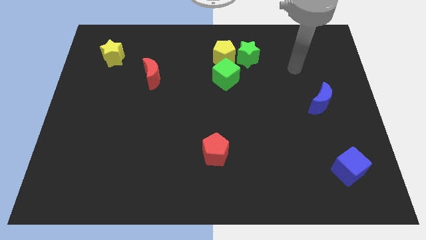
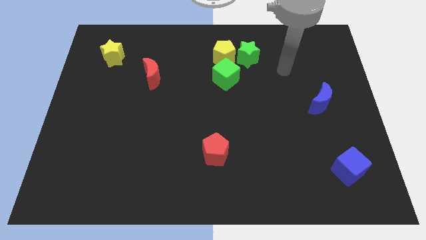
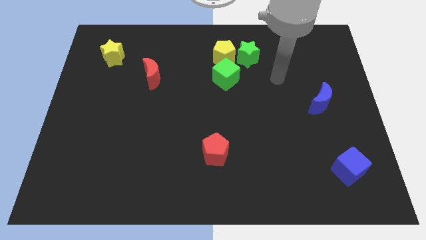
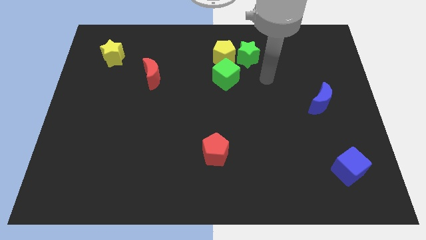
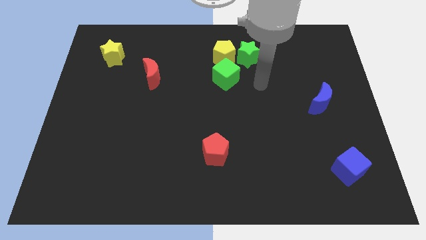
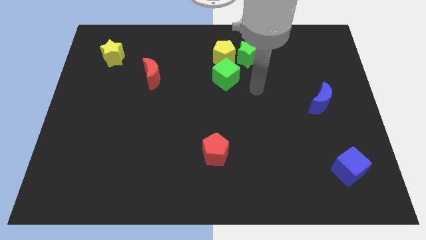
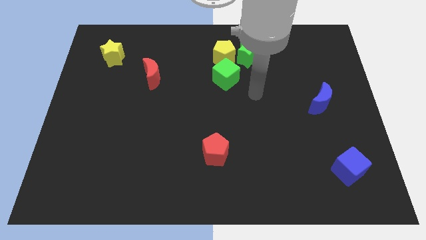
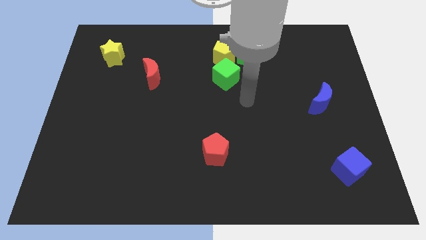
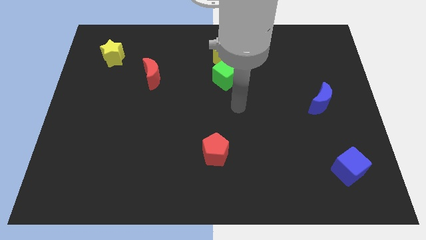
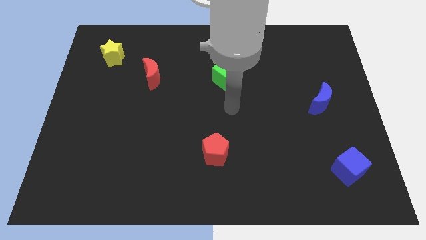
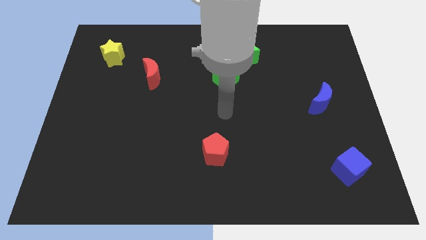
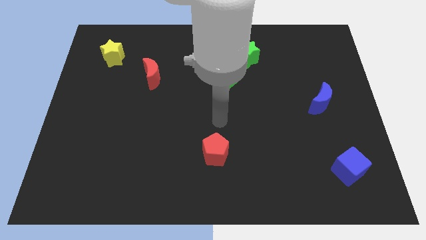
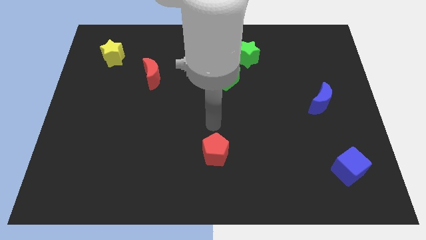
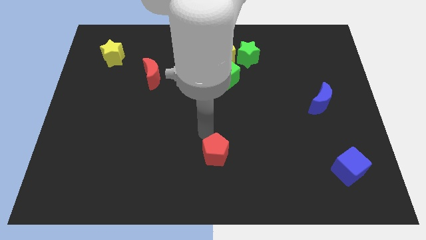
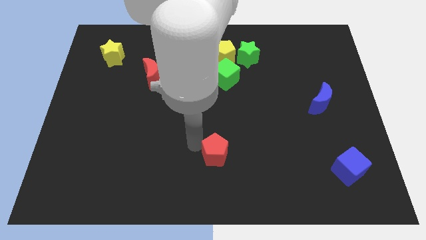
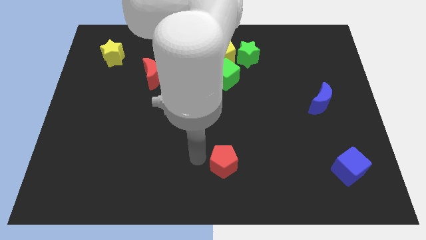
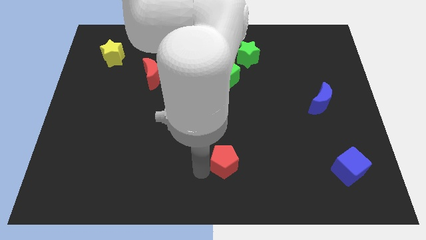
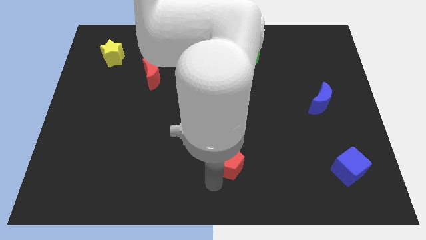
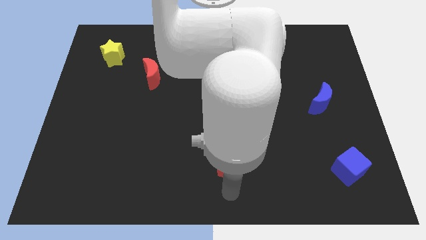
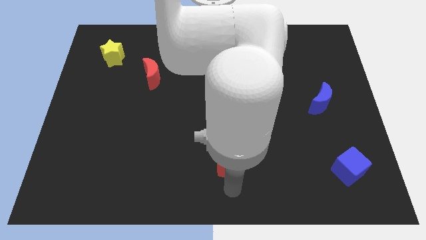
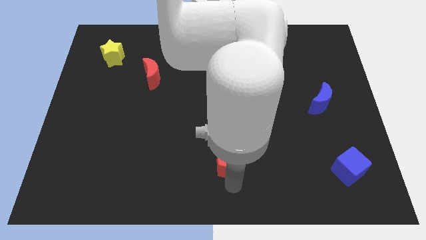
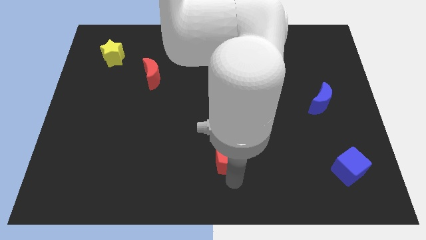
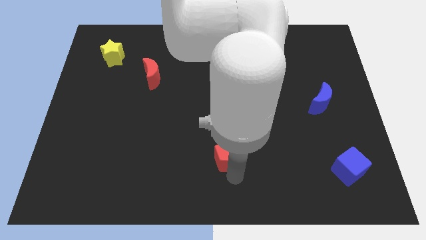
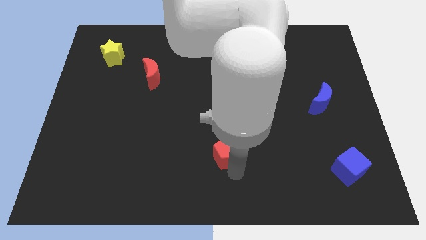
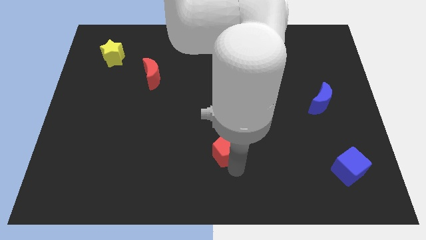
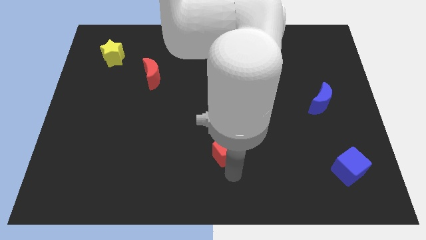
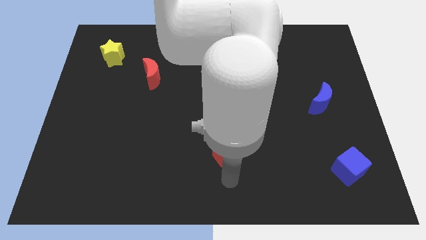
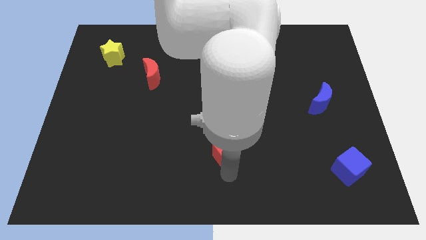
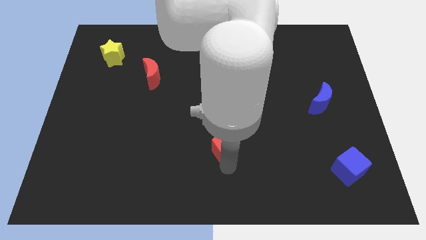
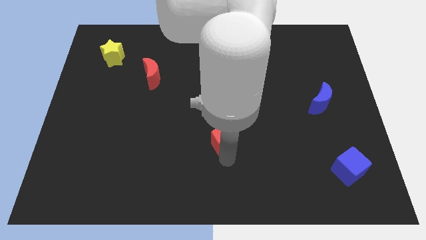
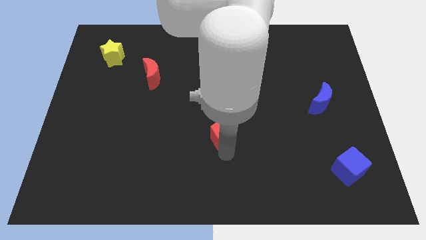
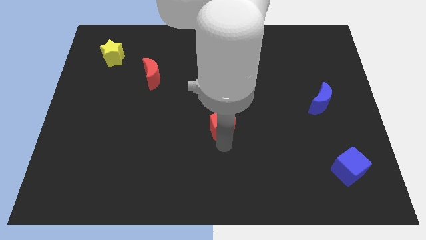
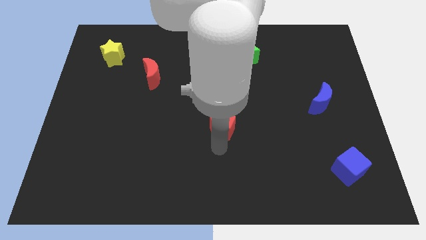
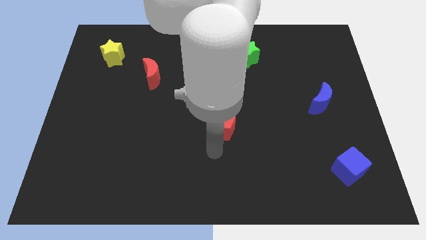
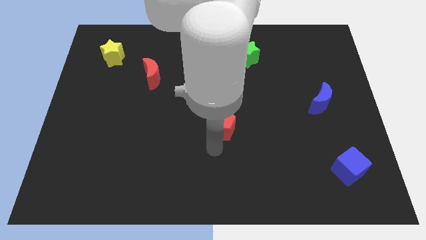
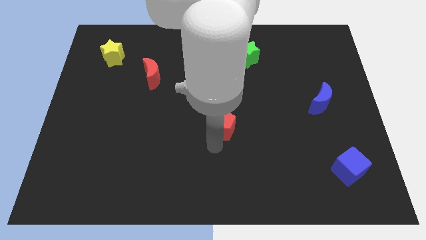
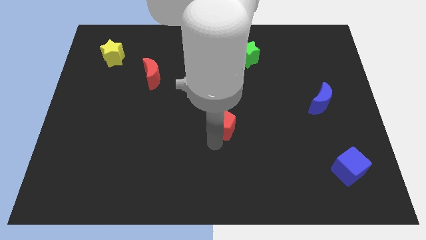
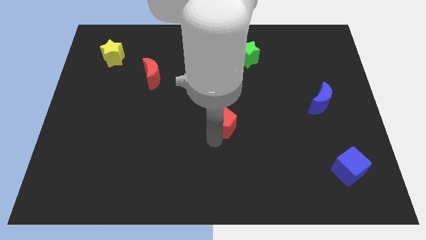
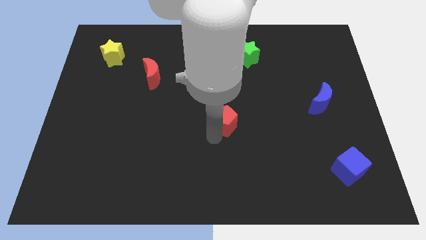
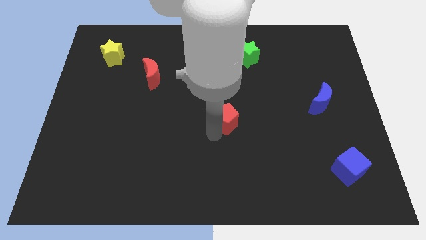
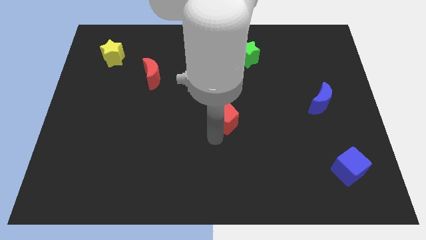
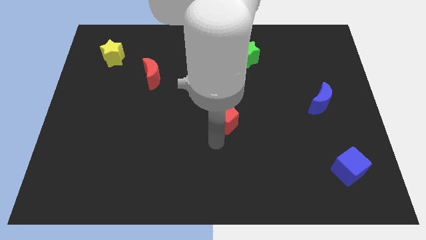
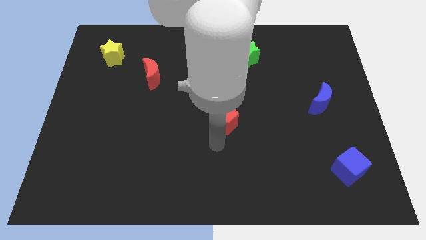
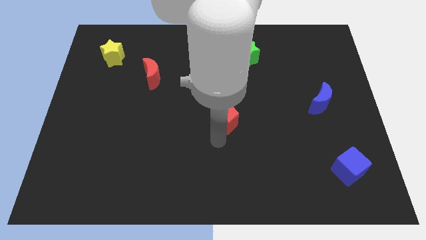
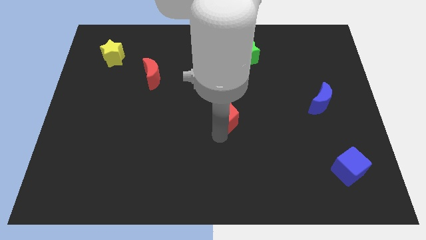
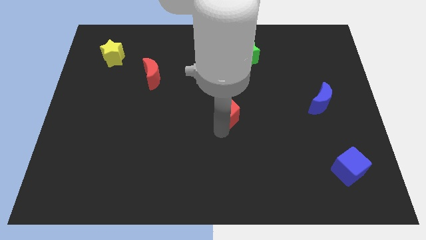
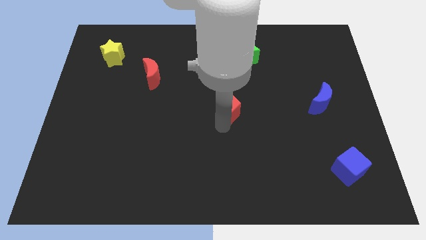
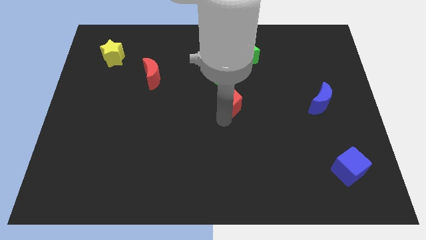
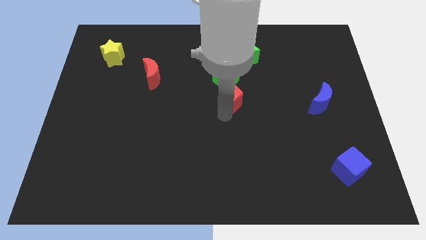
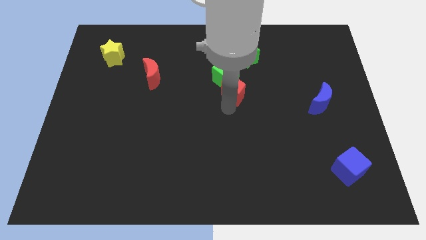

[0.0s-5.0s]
slide the red pentagon next to the green cube

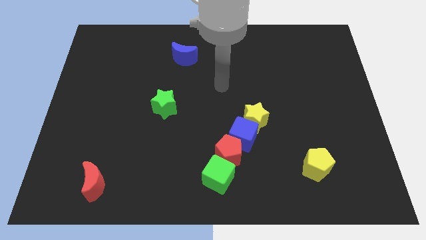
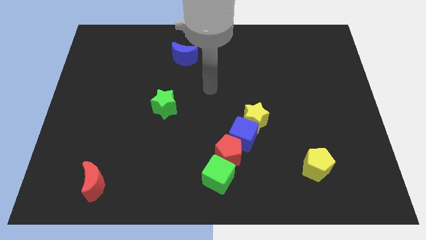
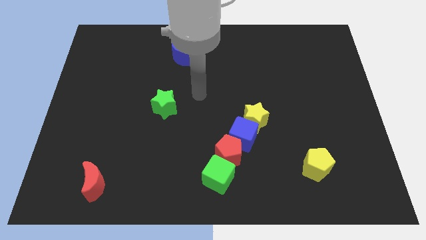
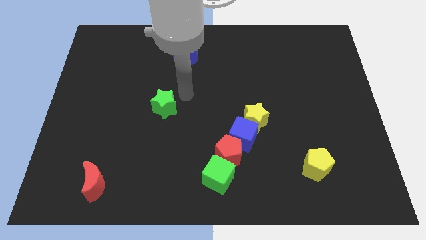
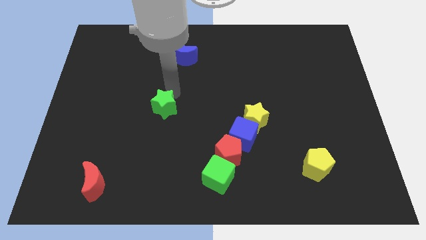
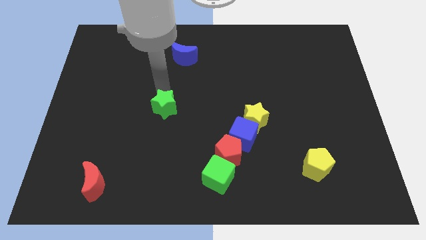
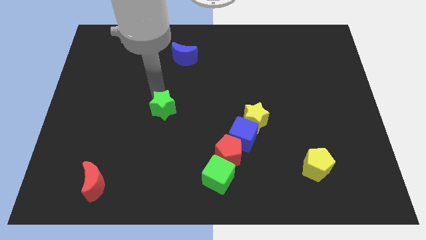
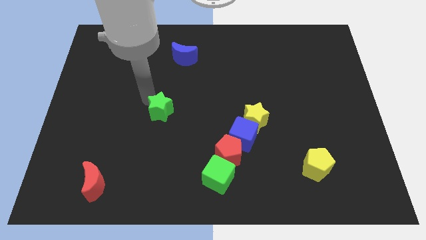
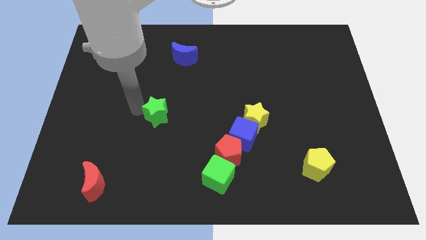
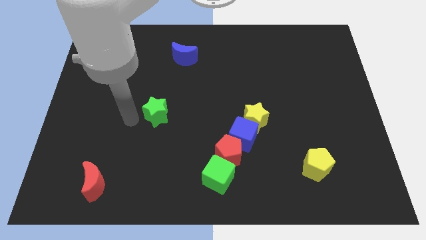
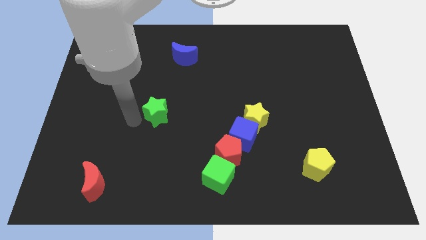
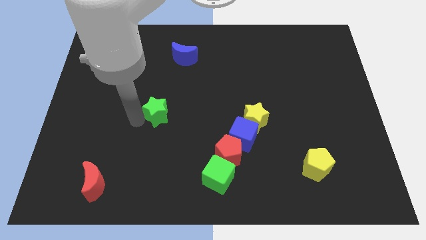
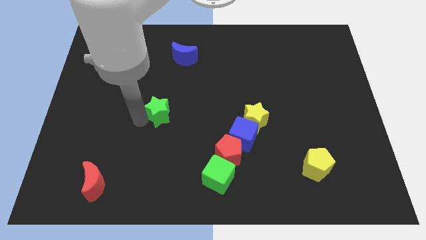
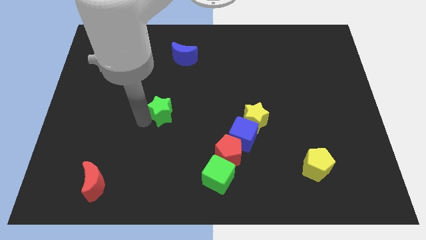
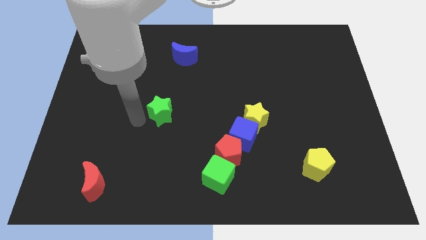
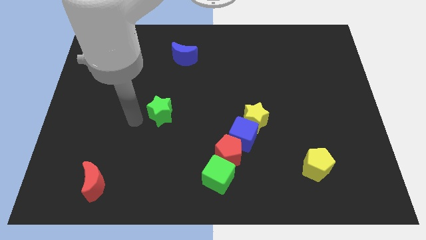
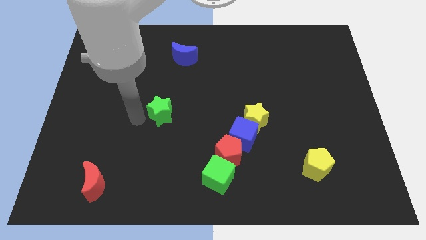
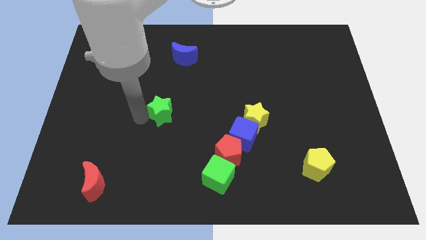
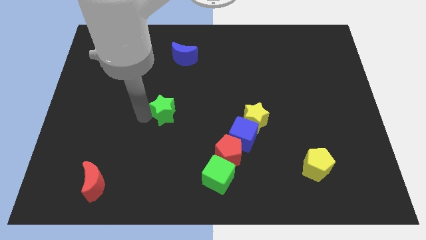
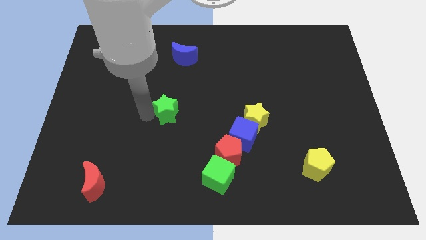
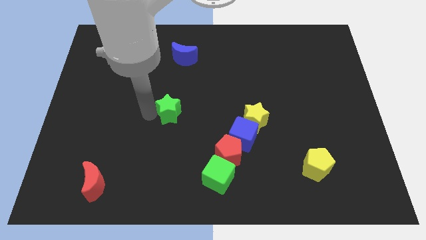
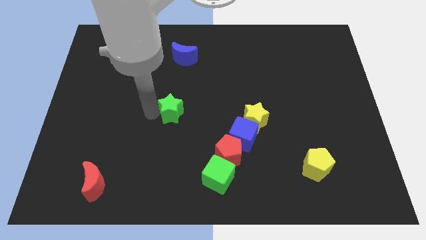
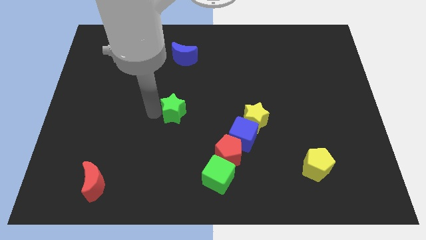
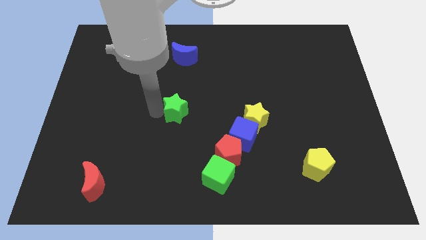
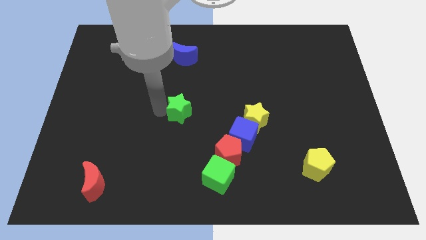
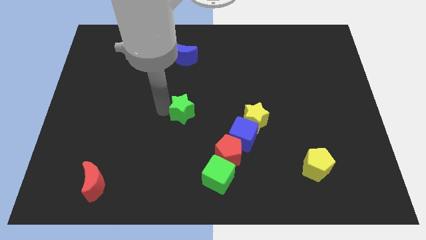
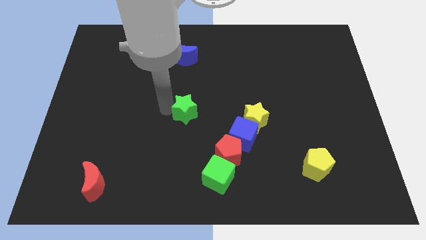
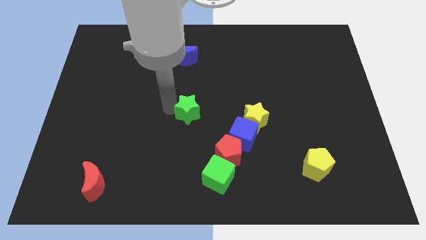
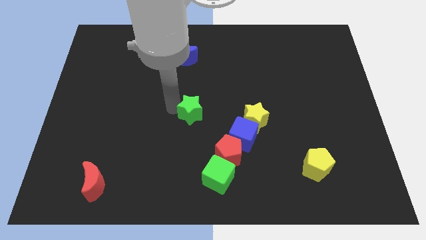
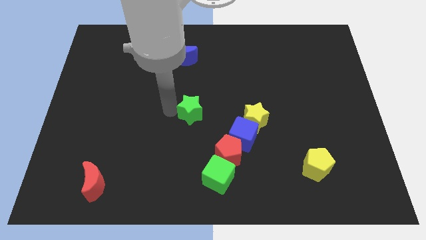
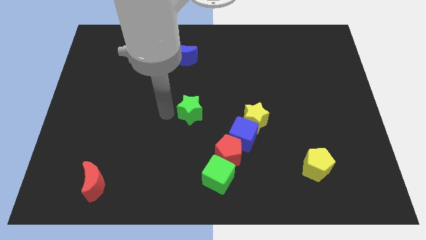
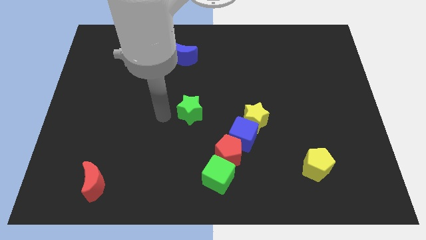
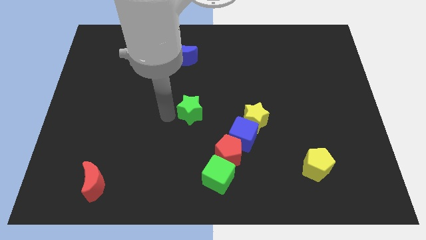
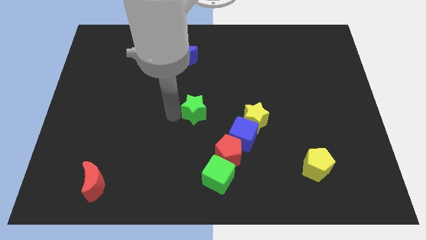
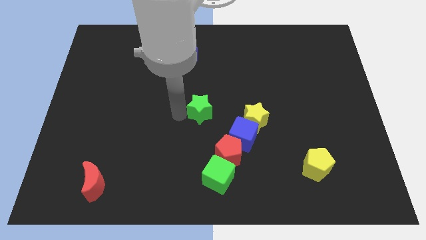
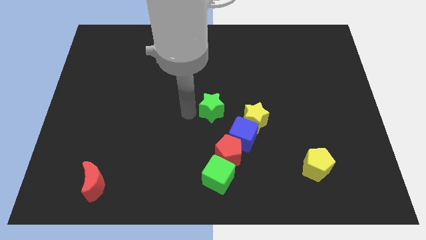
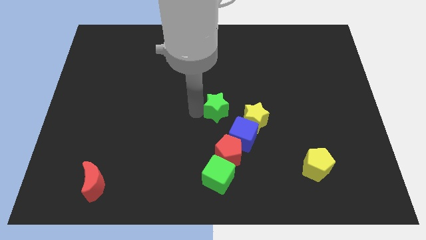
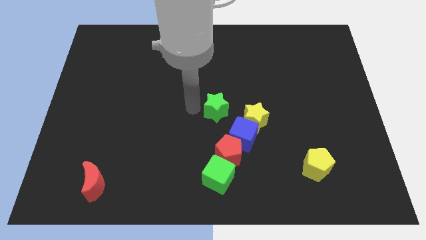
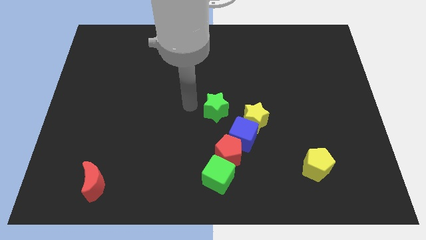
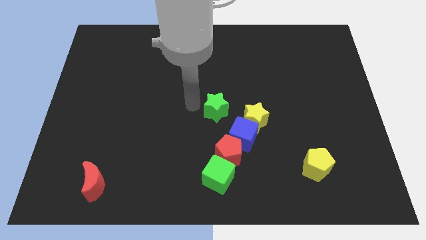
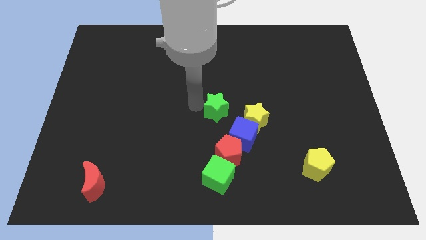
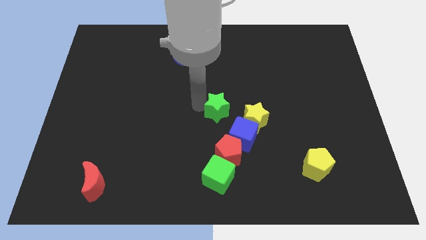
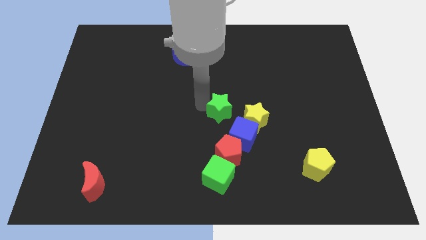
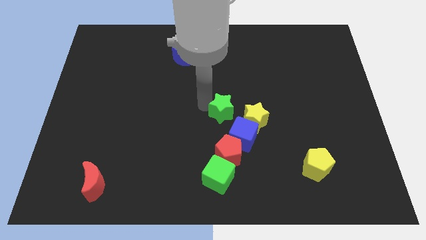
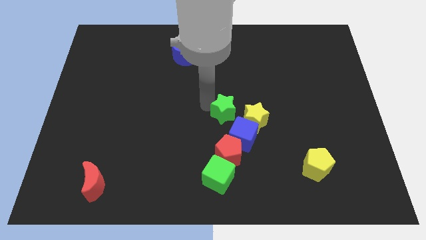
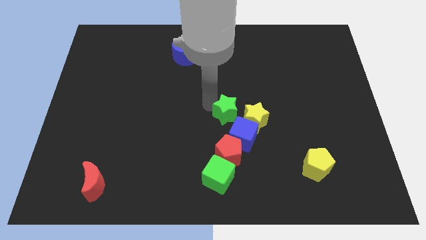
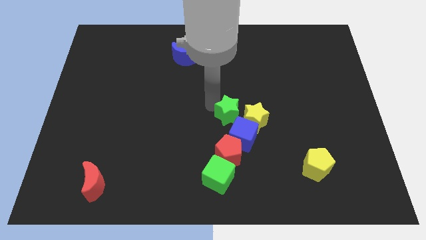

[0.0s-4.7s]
put the green star close to the yellow star
